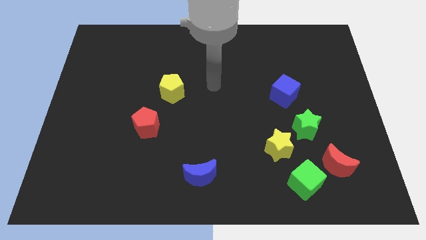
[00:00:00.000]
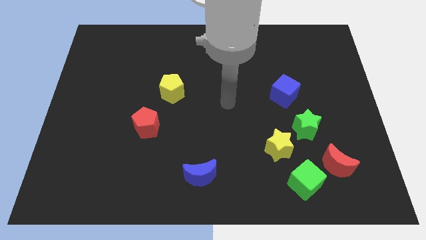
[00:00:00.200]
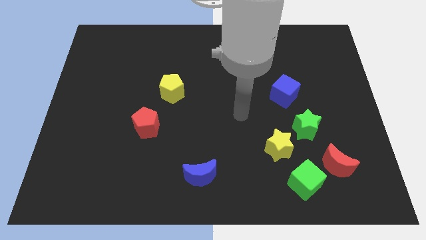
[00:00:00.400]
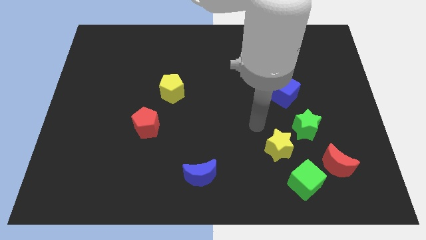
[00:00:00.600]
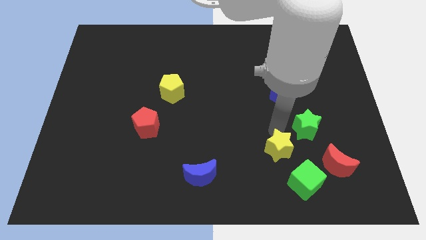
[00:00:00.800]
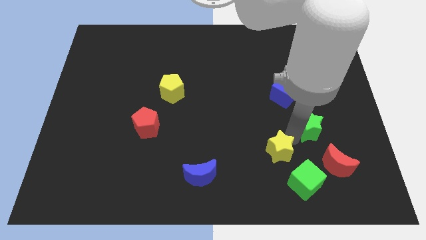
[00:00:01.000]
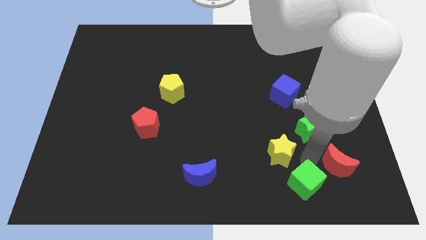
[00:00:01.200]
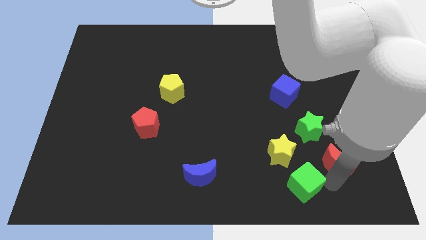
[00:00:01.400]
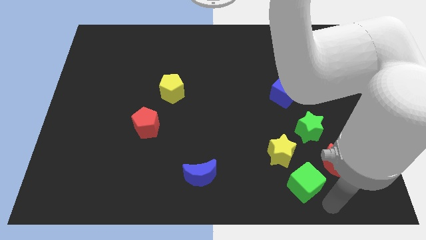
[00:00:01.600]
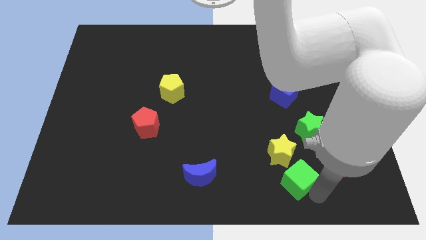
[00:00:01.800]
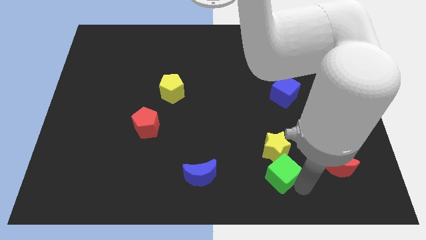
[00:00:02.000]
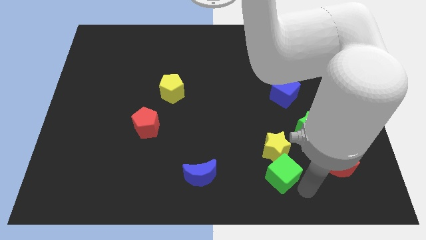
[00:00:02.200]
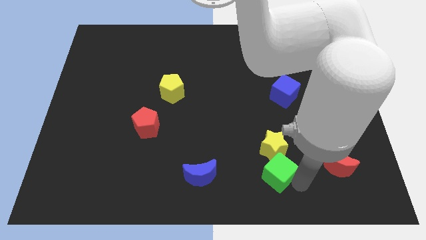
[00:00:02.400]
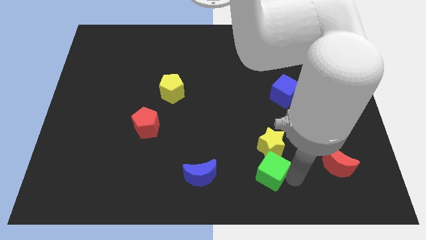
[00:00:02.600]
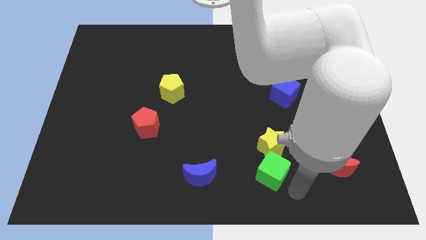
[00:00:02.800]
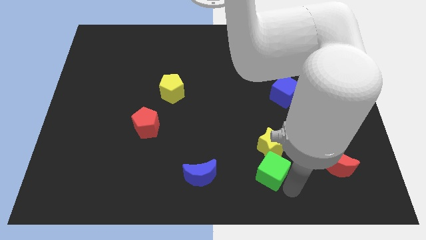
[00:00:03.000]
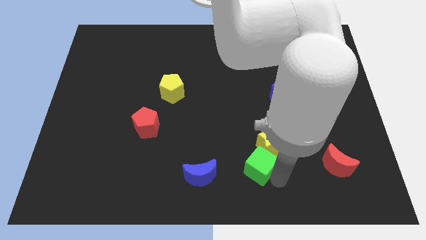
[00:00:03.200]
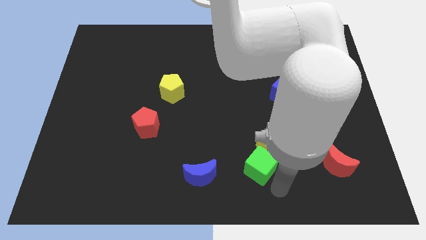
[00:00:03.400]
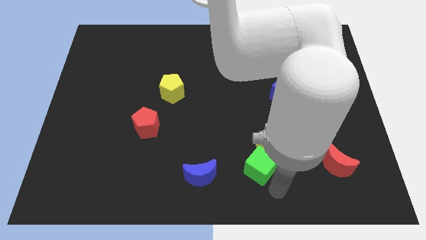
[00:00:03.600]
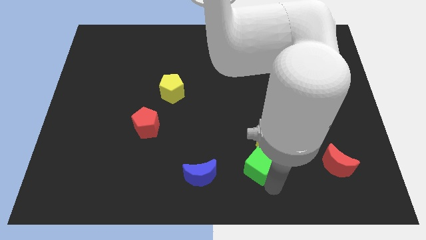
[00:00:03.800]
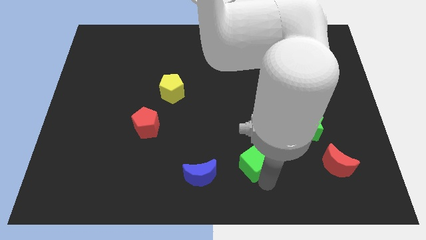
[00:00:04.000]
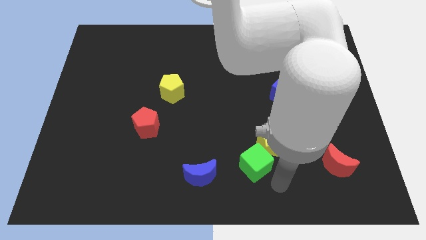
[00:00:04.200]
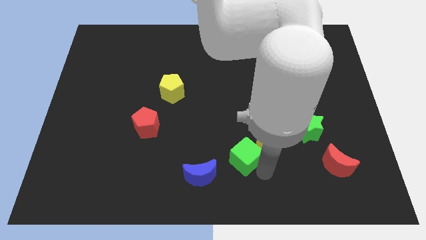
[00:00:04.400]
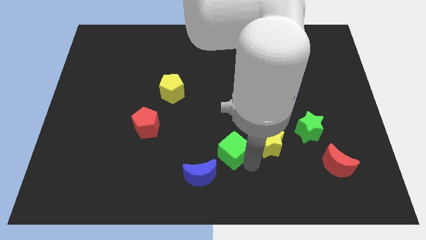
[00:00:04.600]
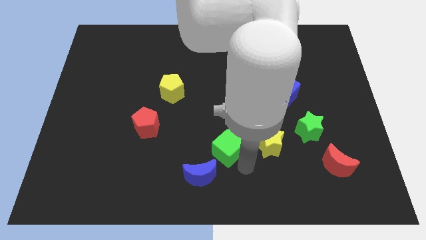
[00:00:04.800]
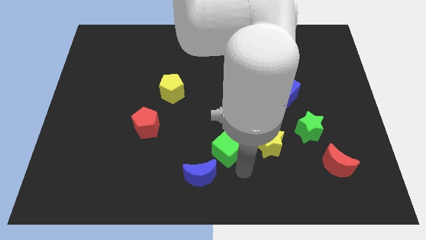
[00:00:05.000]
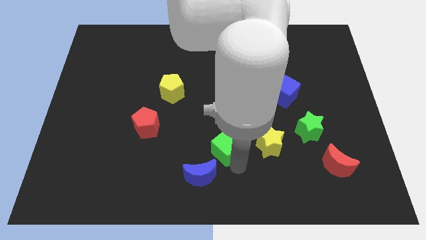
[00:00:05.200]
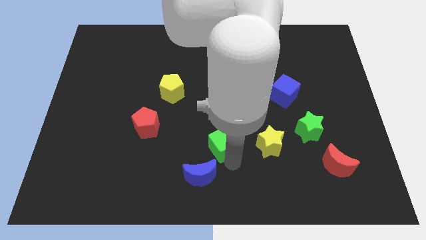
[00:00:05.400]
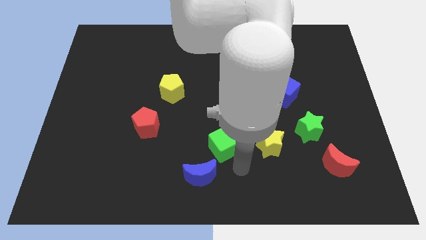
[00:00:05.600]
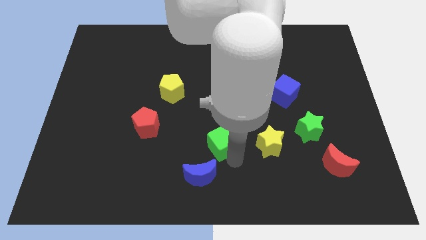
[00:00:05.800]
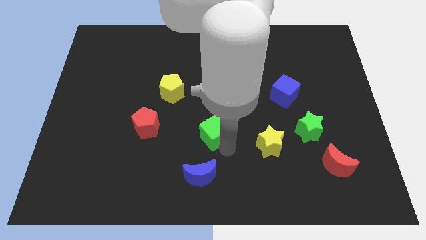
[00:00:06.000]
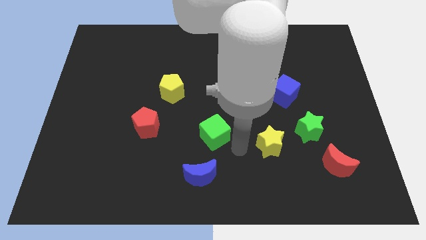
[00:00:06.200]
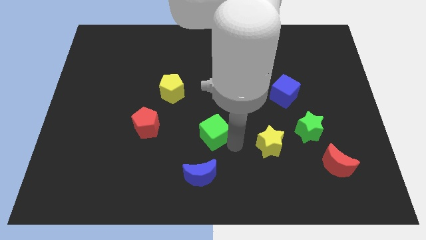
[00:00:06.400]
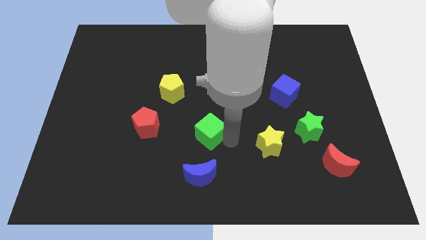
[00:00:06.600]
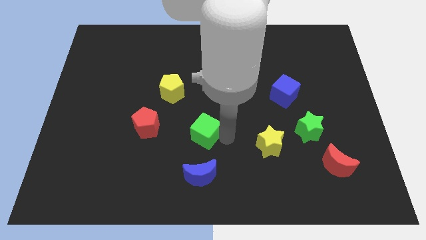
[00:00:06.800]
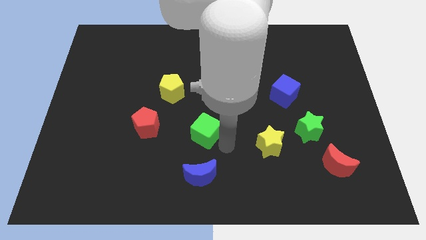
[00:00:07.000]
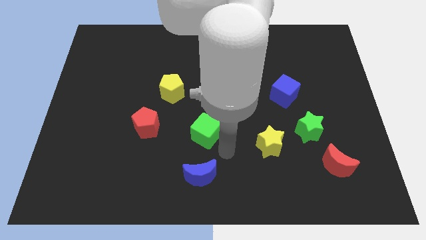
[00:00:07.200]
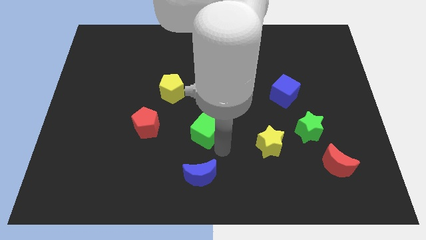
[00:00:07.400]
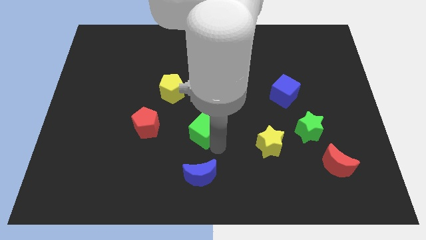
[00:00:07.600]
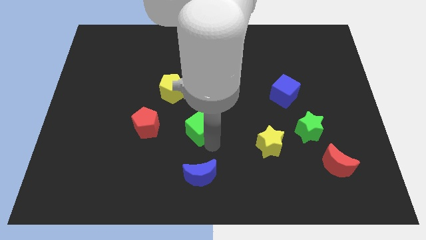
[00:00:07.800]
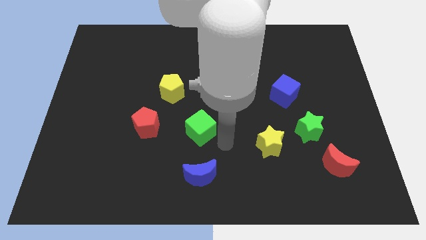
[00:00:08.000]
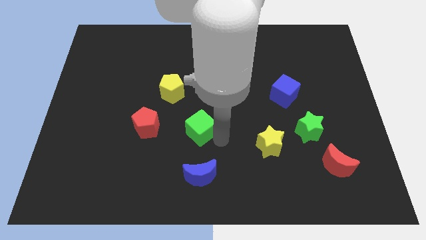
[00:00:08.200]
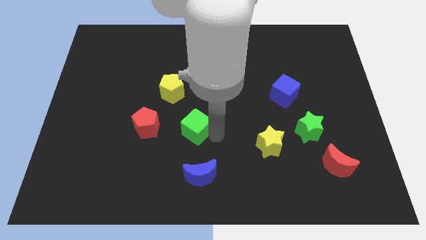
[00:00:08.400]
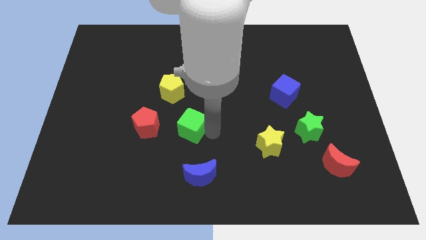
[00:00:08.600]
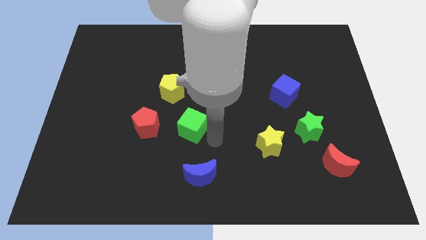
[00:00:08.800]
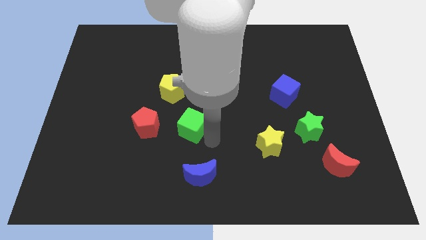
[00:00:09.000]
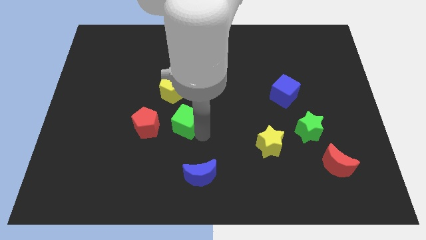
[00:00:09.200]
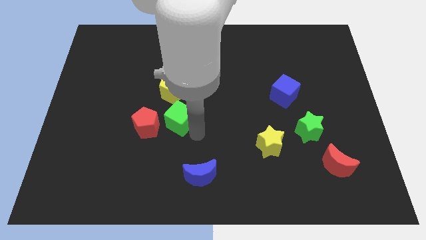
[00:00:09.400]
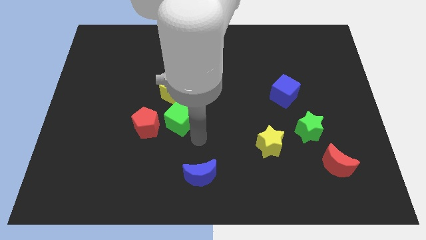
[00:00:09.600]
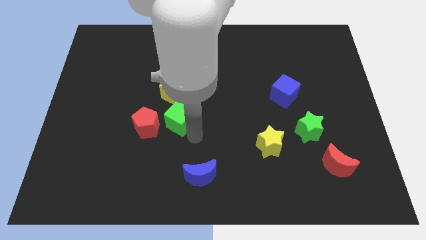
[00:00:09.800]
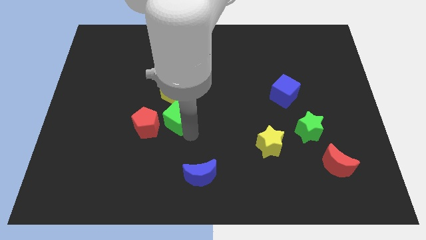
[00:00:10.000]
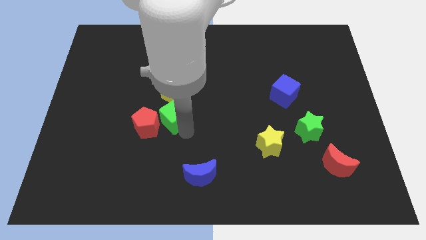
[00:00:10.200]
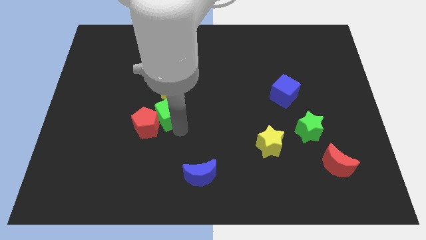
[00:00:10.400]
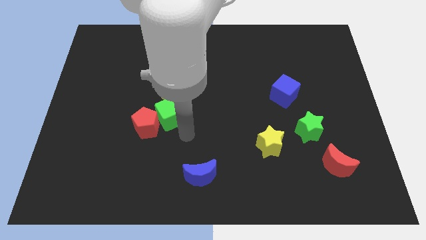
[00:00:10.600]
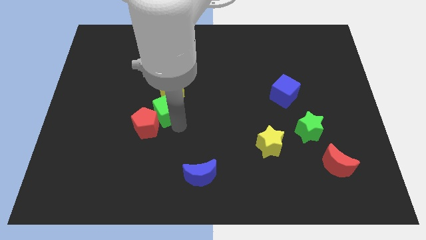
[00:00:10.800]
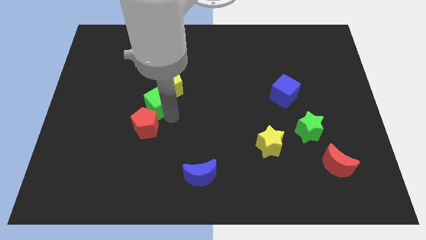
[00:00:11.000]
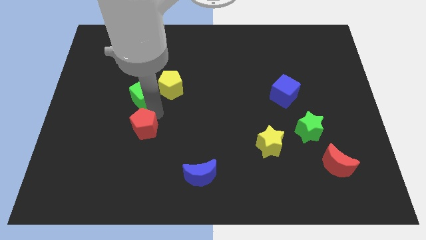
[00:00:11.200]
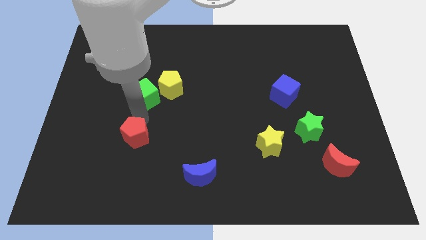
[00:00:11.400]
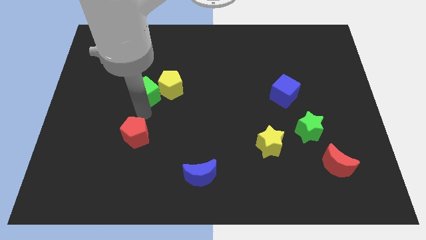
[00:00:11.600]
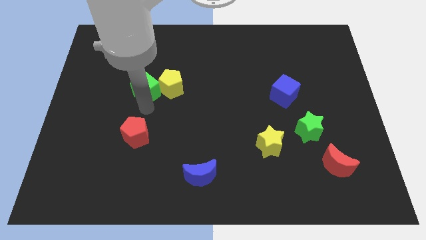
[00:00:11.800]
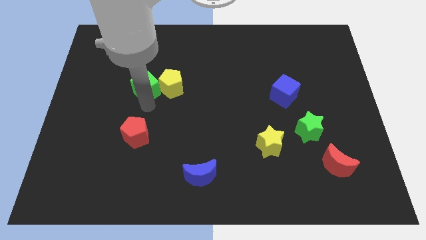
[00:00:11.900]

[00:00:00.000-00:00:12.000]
move the green cube to the top left side of the yellow pentagon

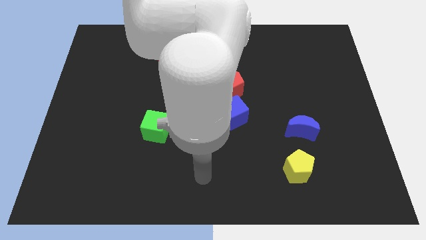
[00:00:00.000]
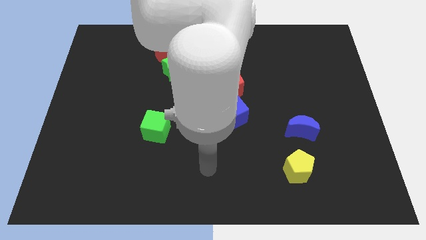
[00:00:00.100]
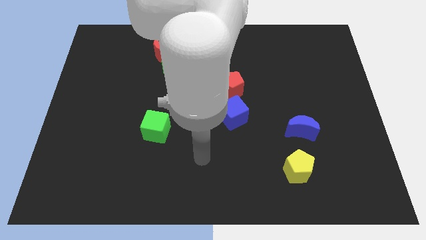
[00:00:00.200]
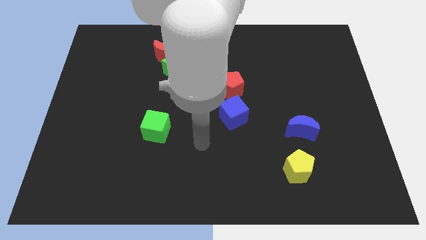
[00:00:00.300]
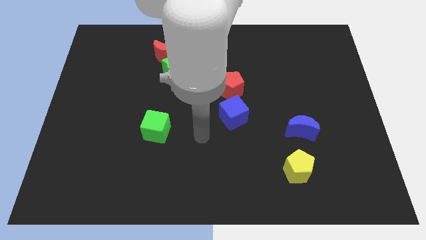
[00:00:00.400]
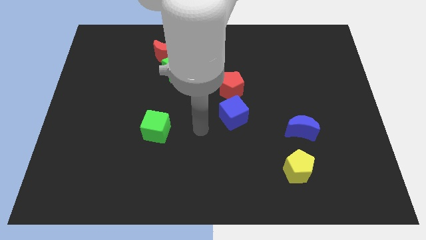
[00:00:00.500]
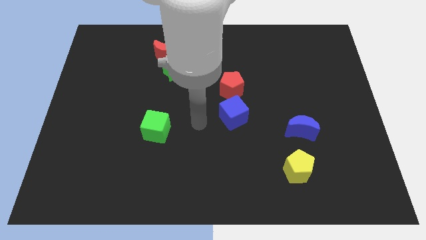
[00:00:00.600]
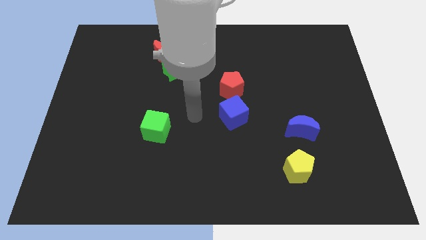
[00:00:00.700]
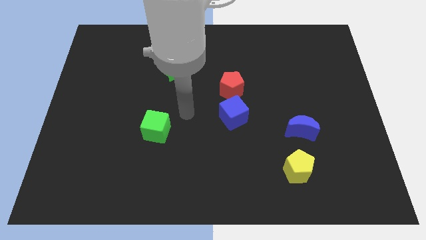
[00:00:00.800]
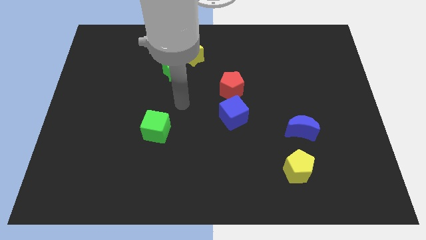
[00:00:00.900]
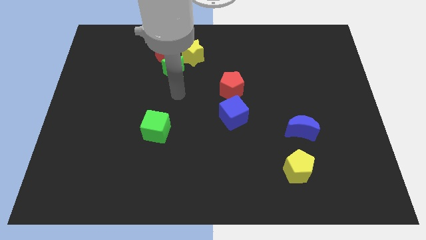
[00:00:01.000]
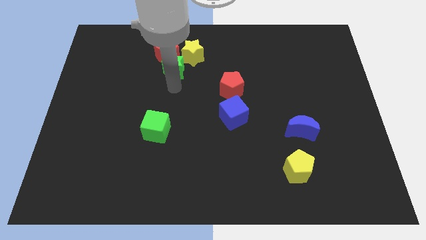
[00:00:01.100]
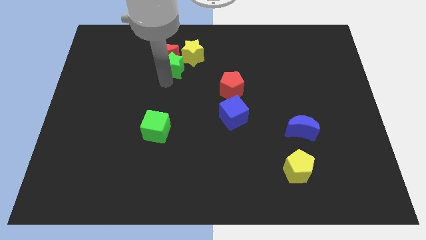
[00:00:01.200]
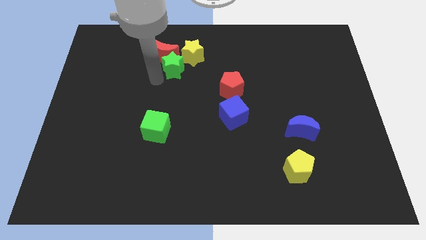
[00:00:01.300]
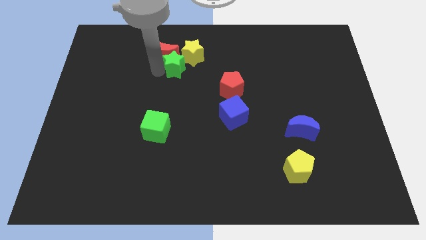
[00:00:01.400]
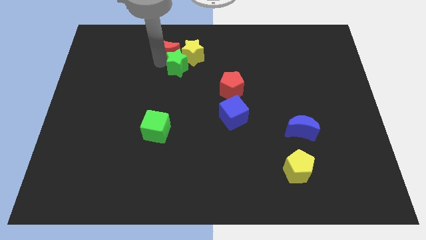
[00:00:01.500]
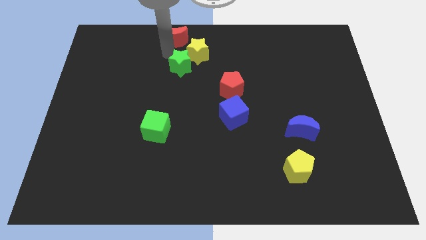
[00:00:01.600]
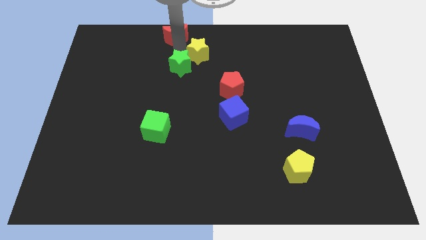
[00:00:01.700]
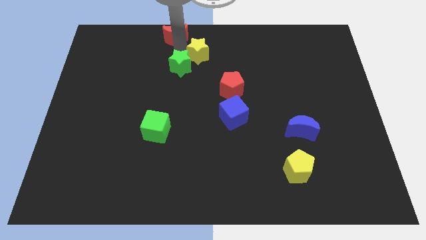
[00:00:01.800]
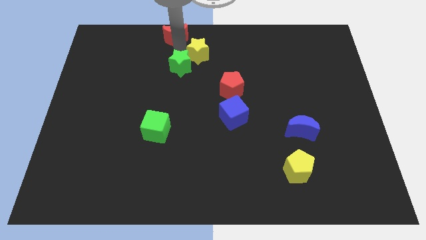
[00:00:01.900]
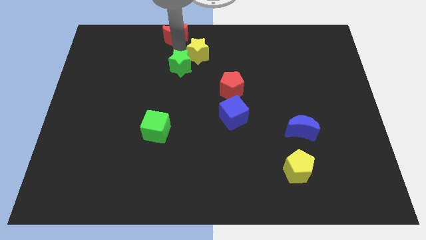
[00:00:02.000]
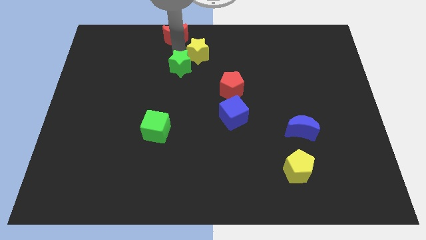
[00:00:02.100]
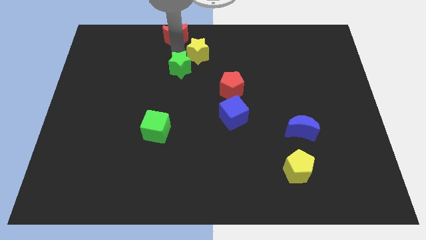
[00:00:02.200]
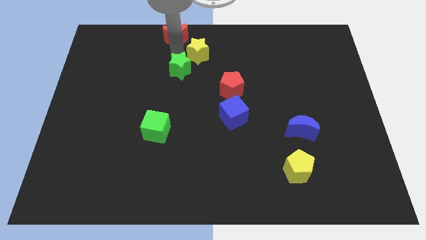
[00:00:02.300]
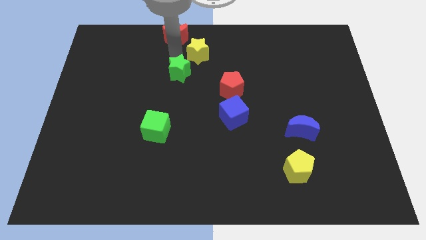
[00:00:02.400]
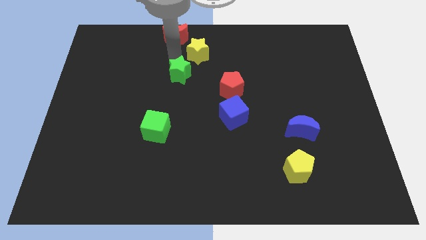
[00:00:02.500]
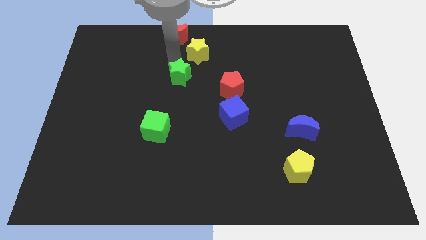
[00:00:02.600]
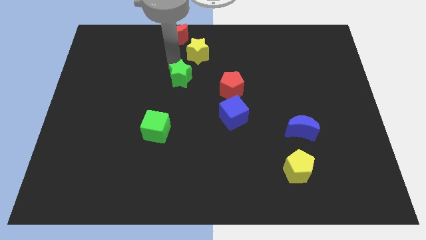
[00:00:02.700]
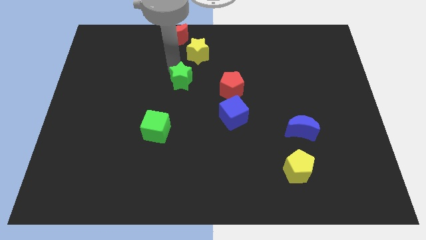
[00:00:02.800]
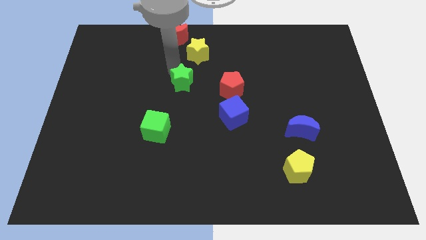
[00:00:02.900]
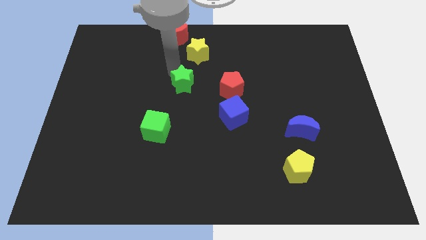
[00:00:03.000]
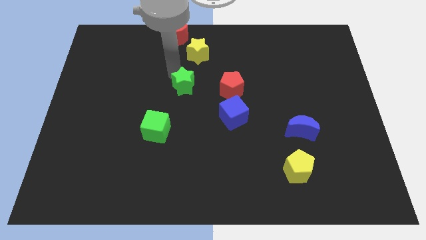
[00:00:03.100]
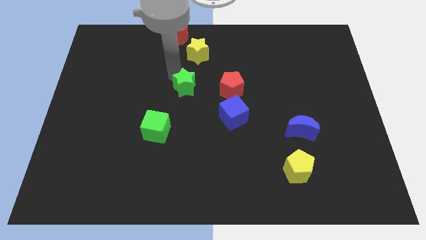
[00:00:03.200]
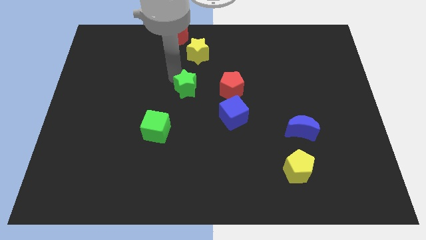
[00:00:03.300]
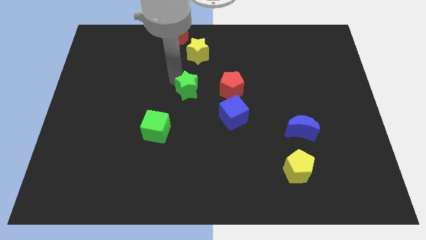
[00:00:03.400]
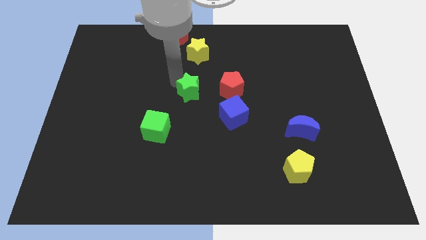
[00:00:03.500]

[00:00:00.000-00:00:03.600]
slide the green star diagonally up and to the left of the blue cube
